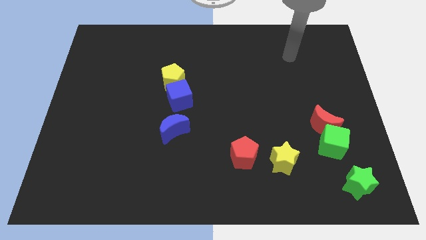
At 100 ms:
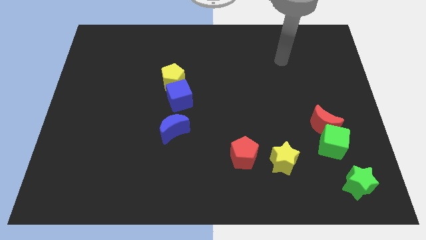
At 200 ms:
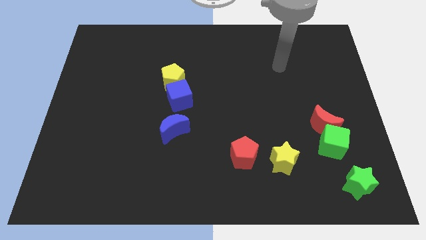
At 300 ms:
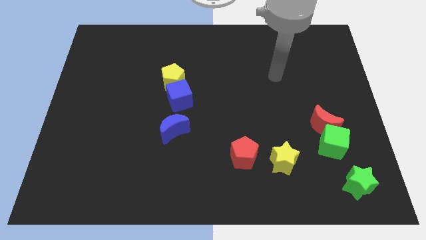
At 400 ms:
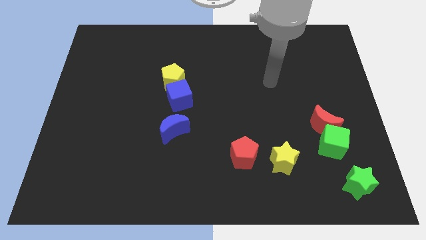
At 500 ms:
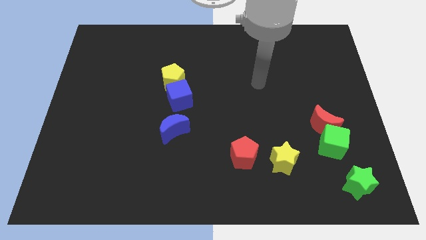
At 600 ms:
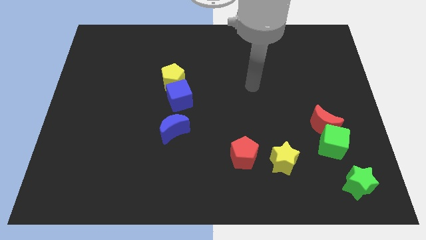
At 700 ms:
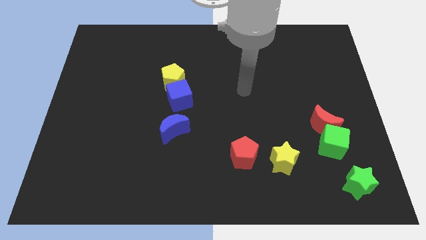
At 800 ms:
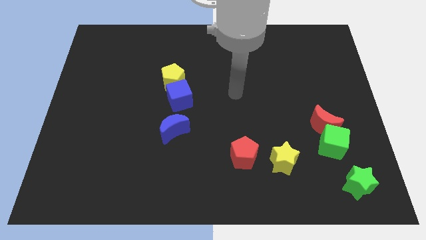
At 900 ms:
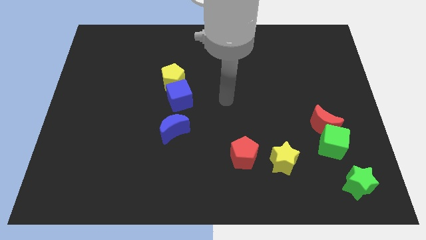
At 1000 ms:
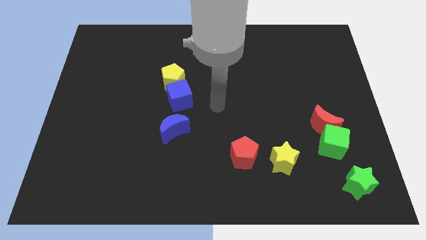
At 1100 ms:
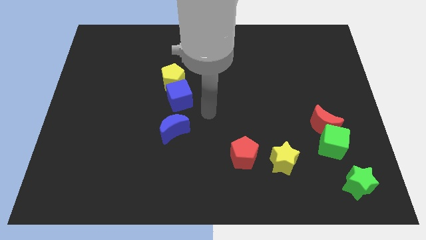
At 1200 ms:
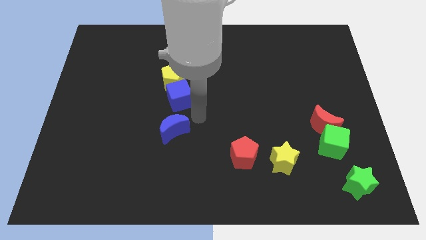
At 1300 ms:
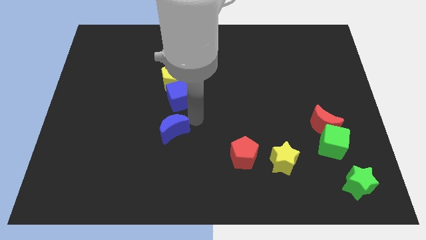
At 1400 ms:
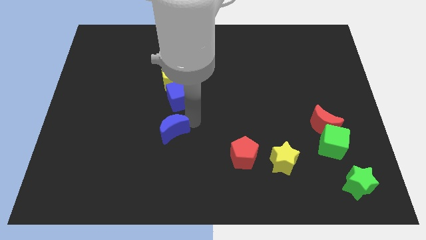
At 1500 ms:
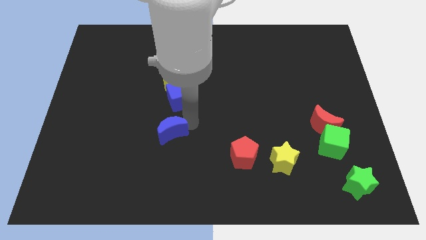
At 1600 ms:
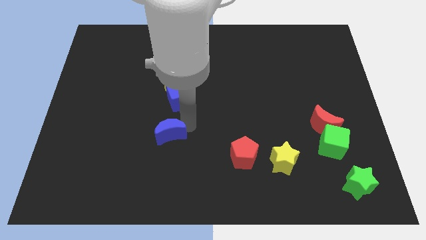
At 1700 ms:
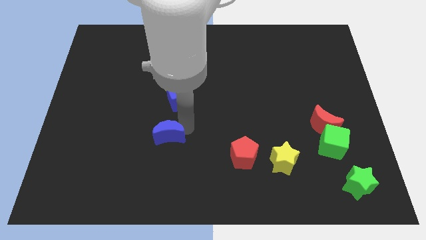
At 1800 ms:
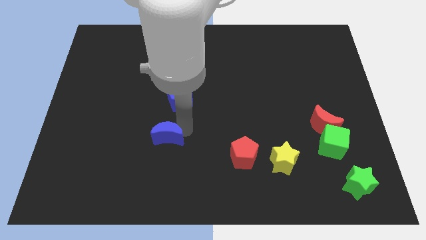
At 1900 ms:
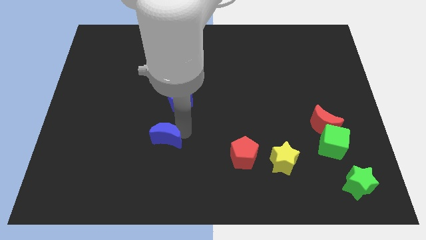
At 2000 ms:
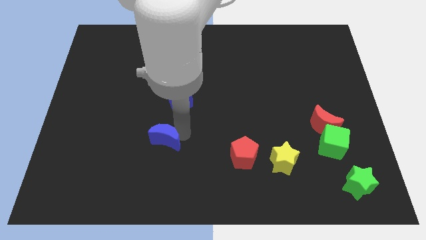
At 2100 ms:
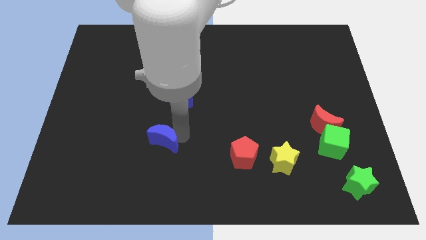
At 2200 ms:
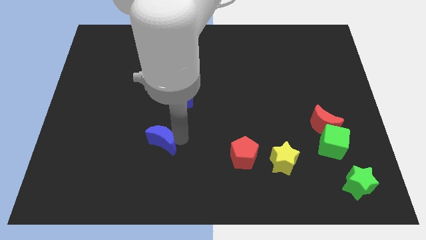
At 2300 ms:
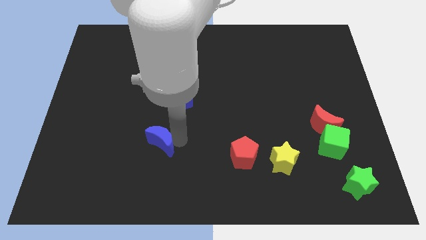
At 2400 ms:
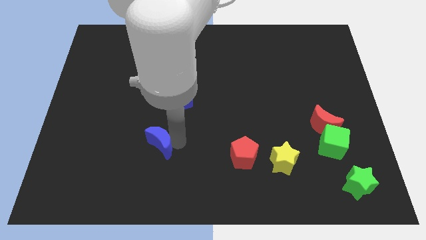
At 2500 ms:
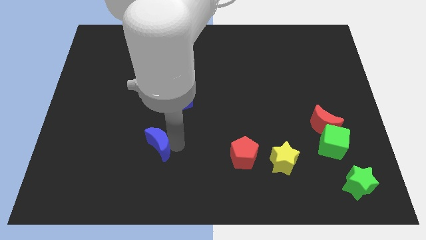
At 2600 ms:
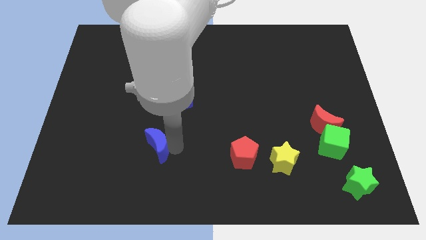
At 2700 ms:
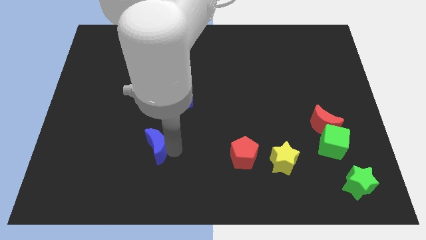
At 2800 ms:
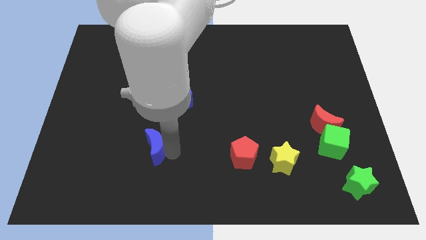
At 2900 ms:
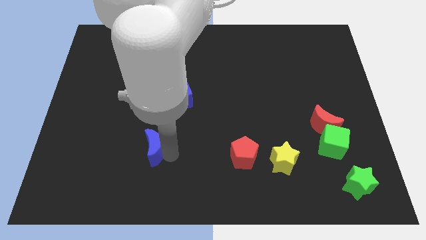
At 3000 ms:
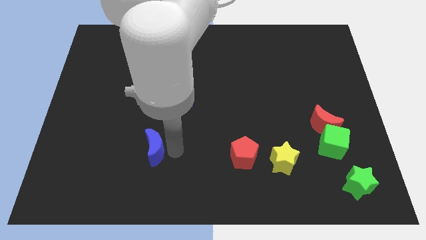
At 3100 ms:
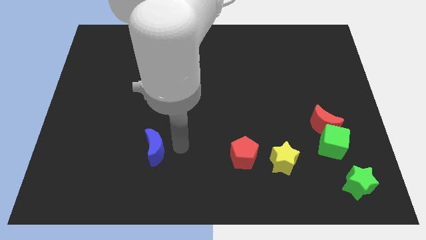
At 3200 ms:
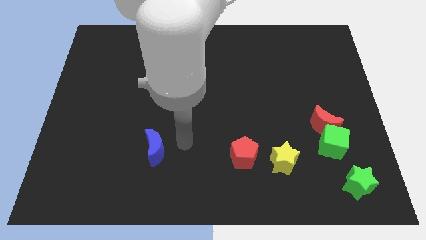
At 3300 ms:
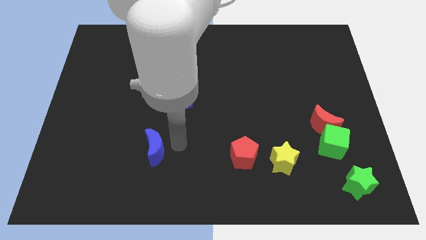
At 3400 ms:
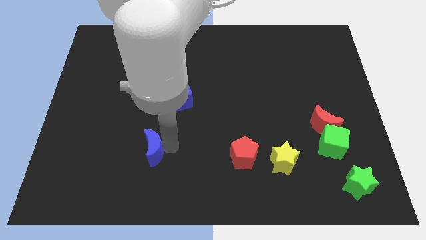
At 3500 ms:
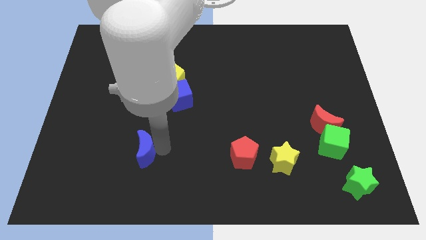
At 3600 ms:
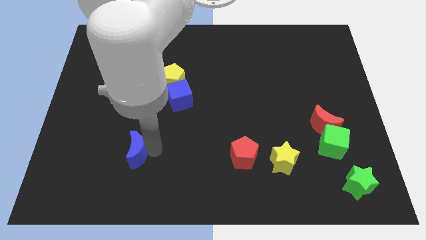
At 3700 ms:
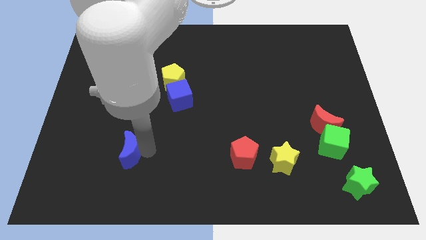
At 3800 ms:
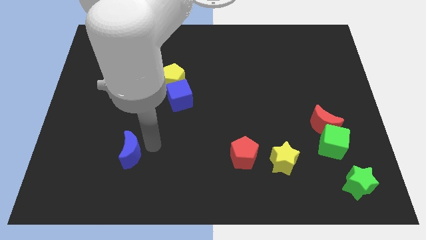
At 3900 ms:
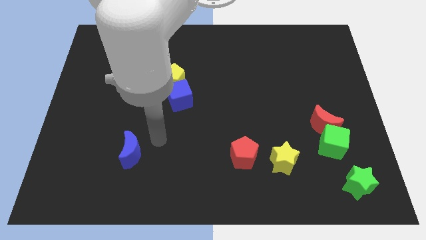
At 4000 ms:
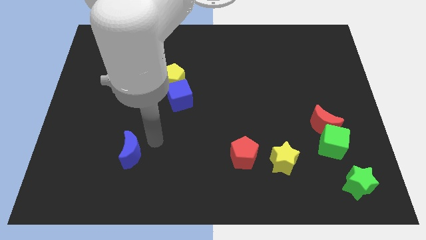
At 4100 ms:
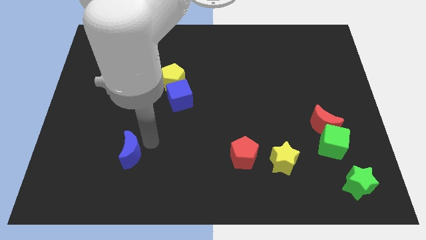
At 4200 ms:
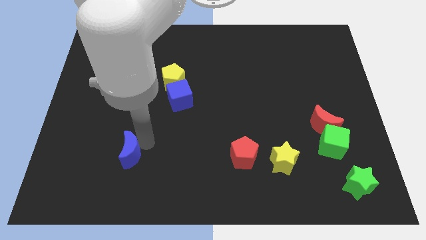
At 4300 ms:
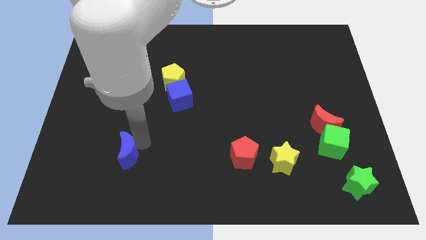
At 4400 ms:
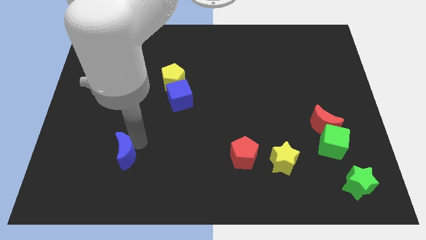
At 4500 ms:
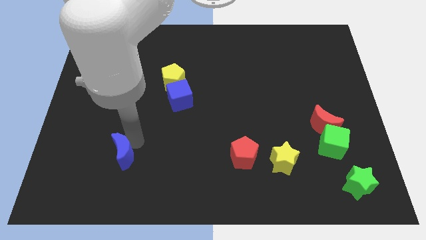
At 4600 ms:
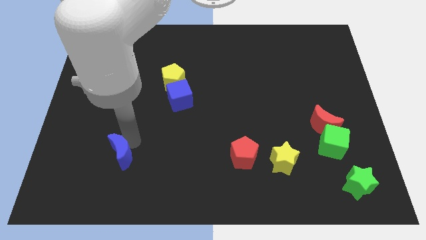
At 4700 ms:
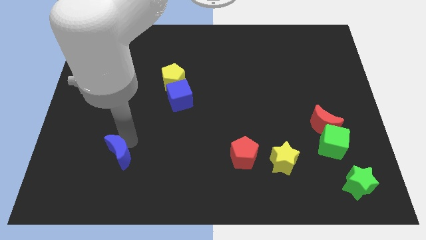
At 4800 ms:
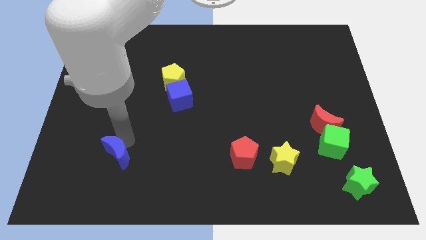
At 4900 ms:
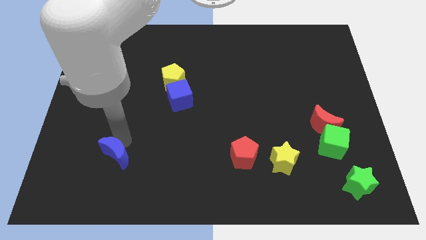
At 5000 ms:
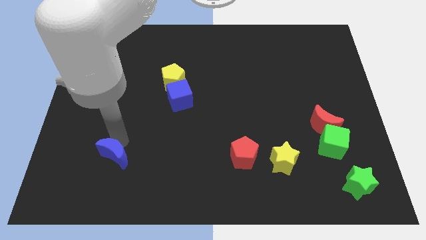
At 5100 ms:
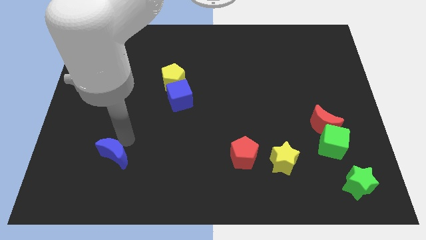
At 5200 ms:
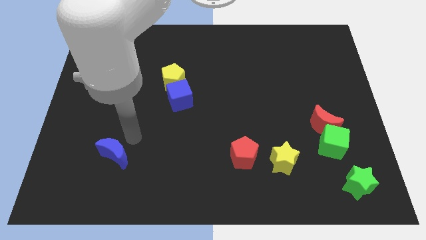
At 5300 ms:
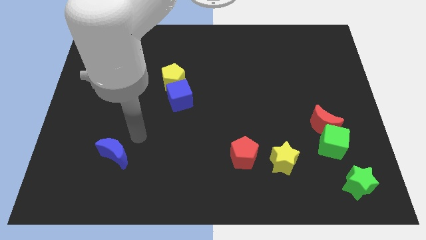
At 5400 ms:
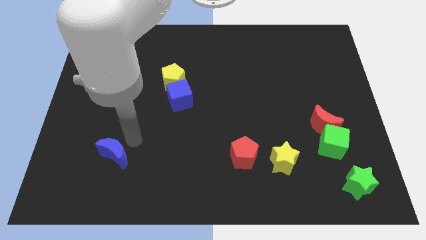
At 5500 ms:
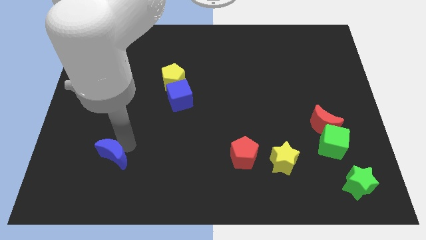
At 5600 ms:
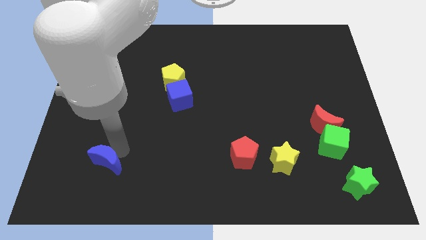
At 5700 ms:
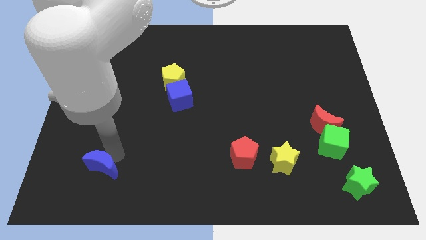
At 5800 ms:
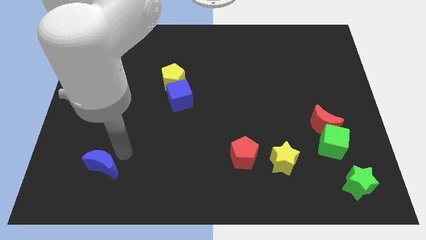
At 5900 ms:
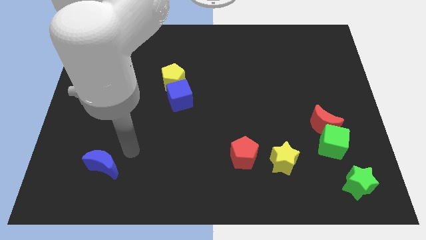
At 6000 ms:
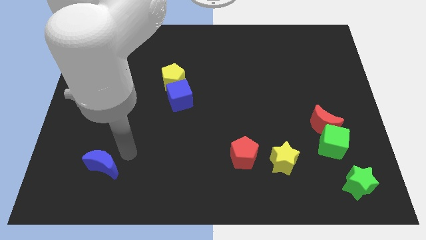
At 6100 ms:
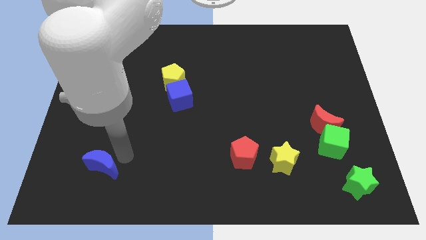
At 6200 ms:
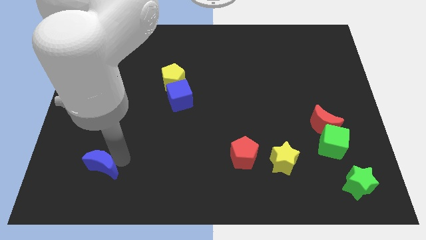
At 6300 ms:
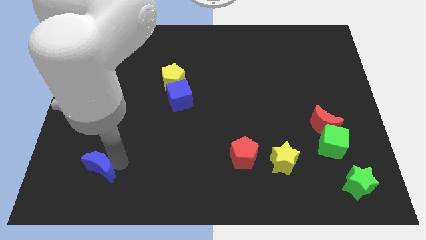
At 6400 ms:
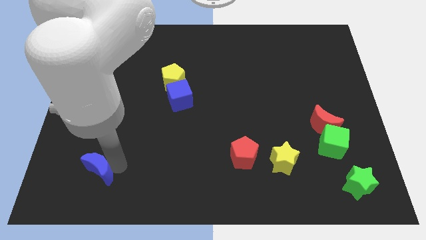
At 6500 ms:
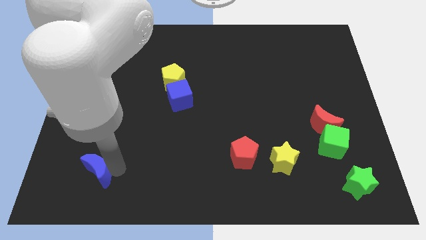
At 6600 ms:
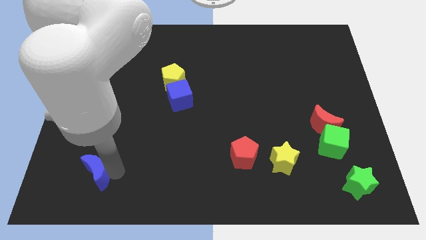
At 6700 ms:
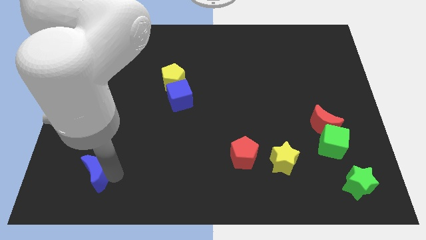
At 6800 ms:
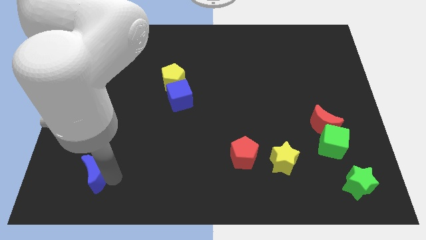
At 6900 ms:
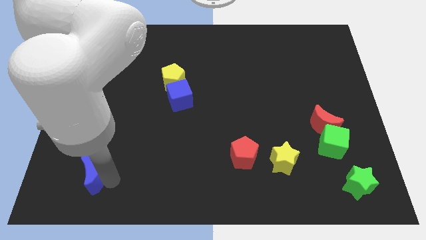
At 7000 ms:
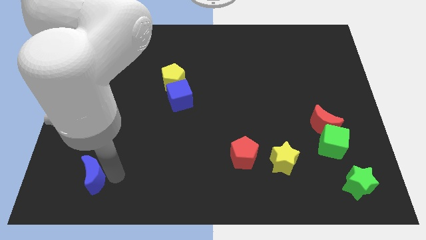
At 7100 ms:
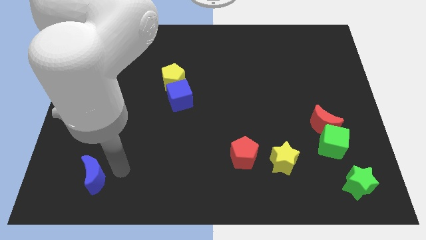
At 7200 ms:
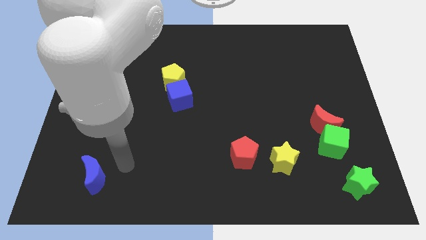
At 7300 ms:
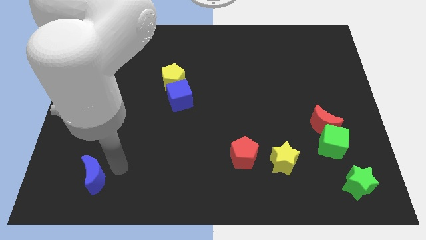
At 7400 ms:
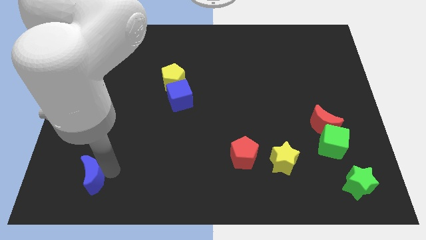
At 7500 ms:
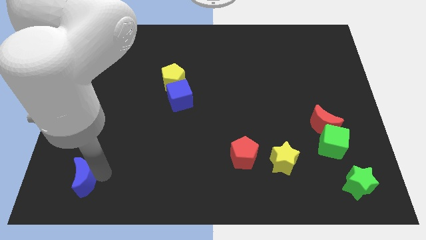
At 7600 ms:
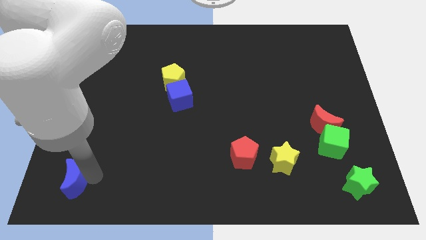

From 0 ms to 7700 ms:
put the blue moon to the bottom left
